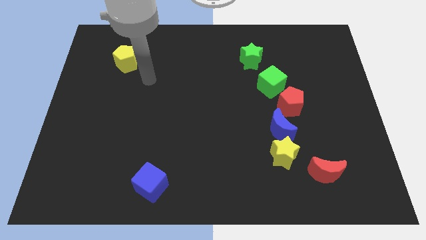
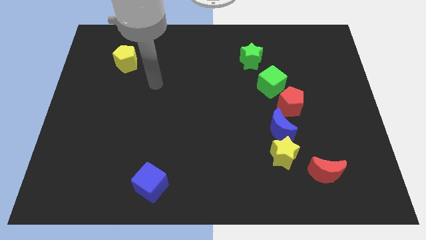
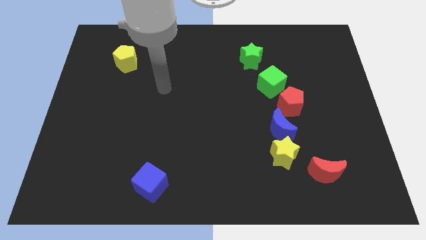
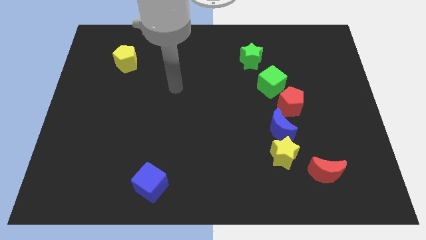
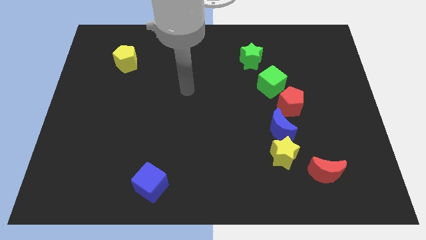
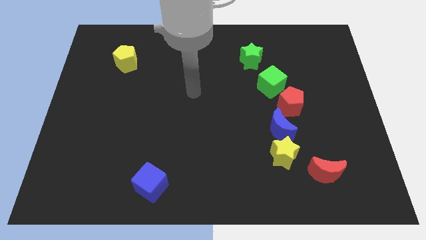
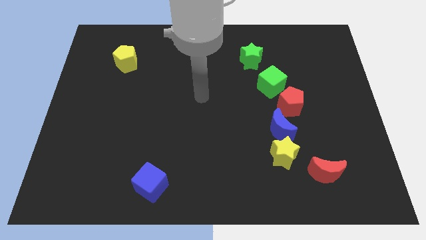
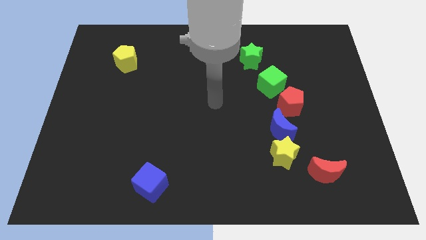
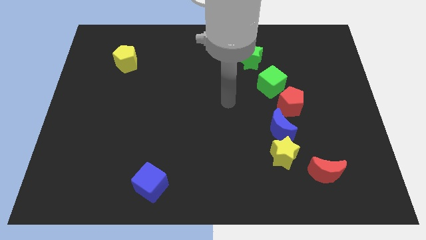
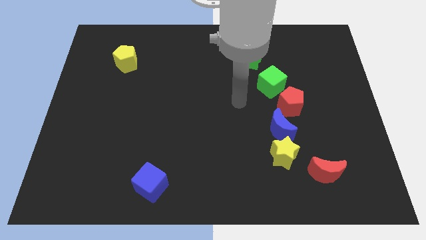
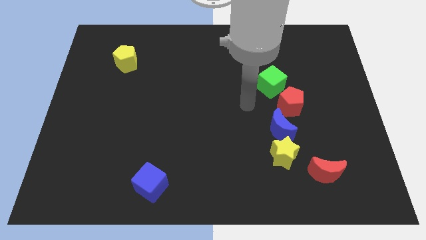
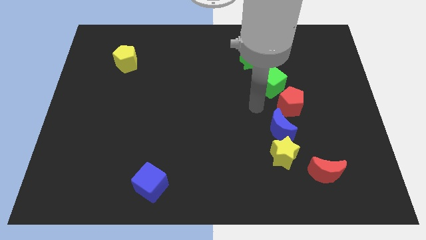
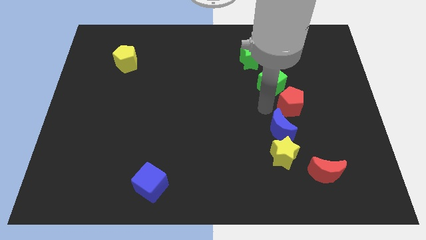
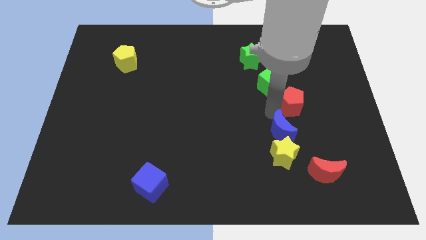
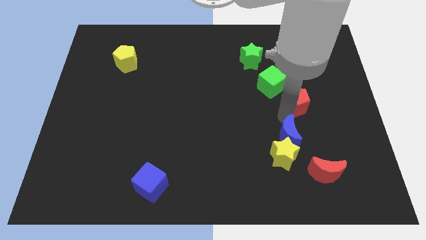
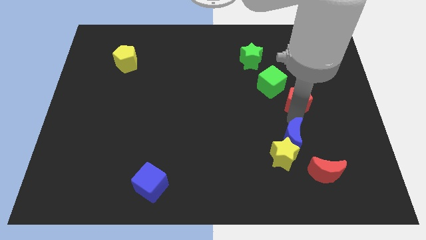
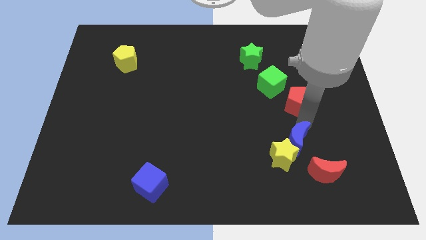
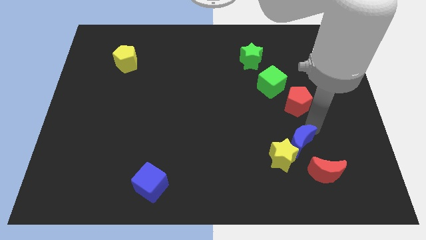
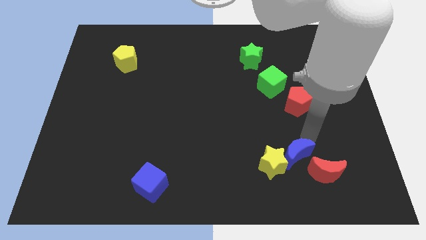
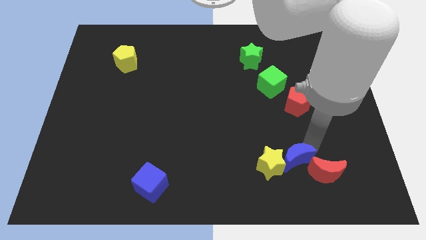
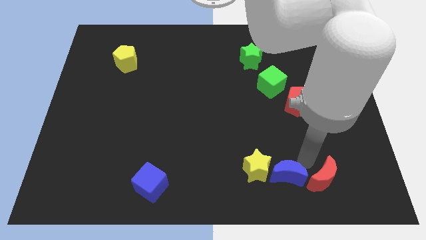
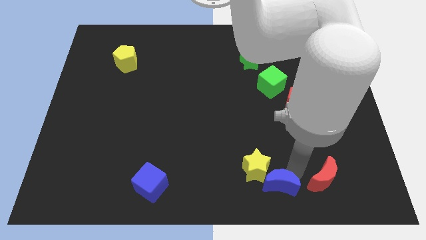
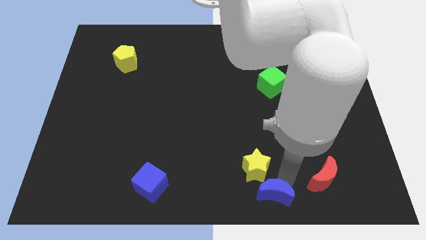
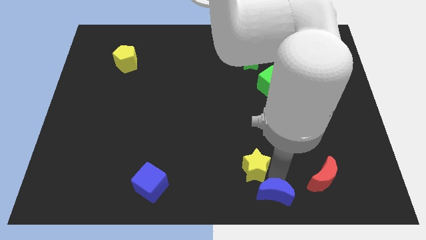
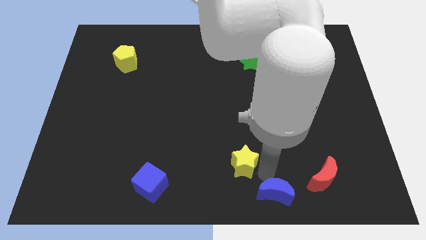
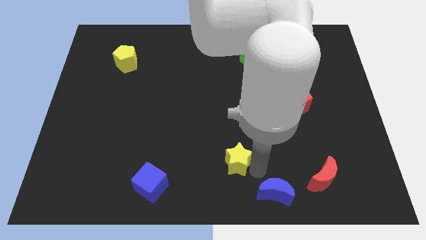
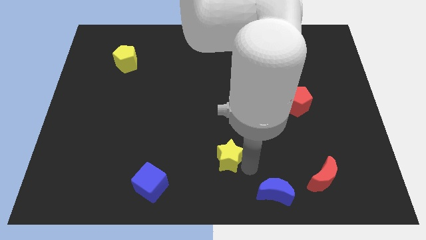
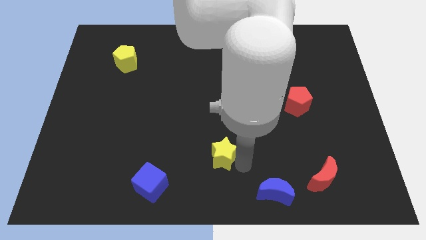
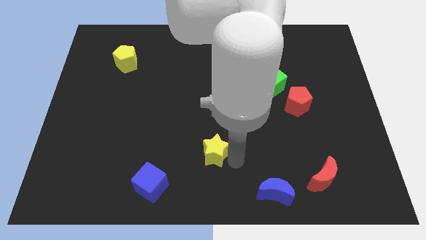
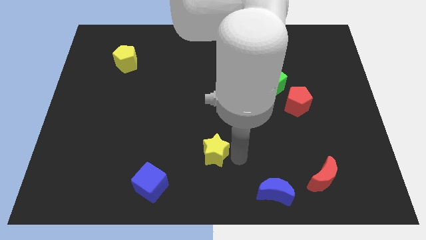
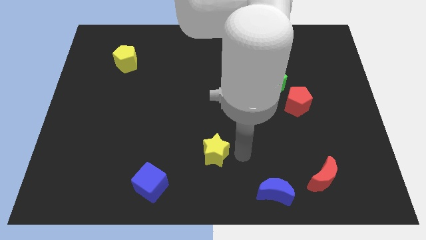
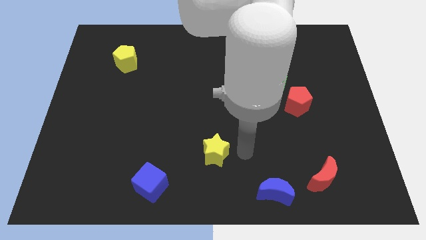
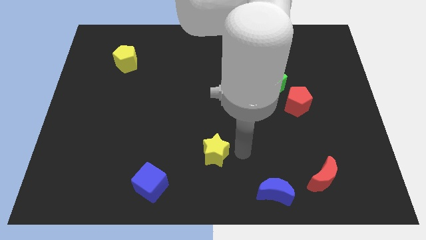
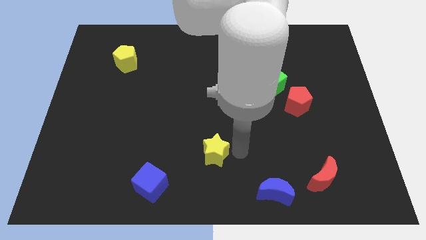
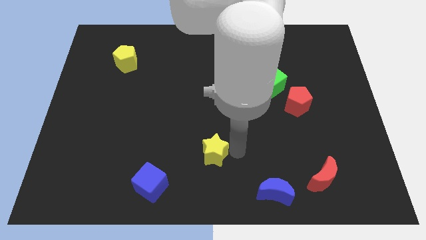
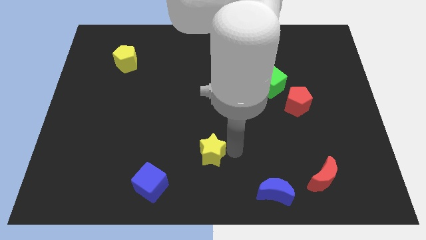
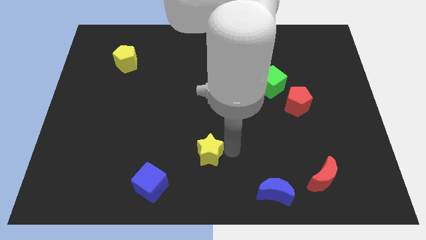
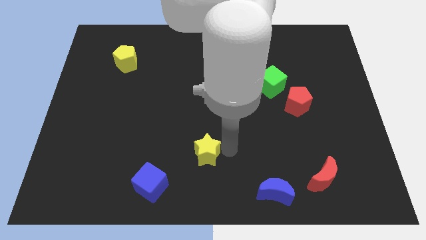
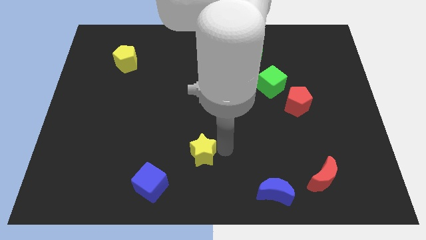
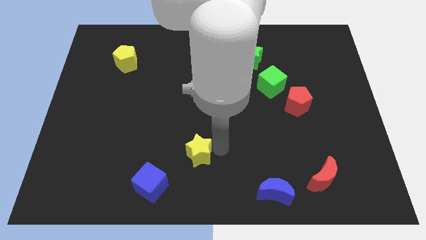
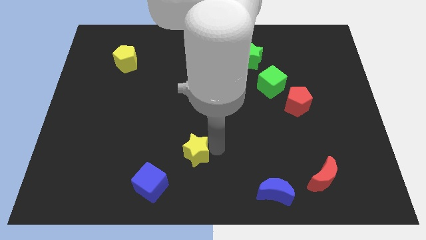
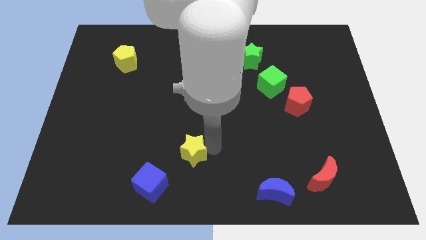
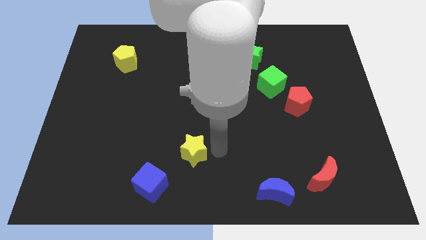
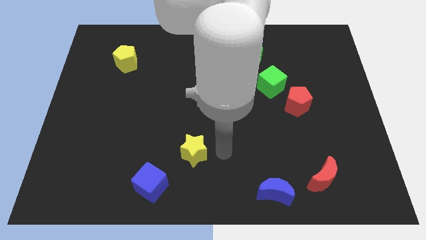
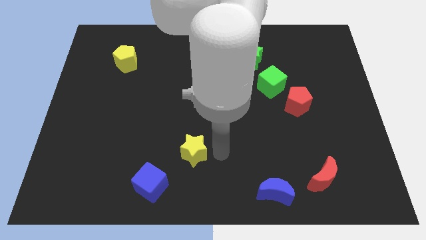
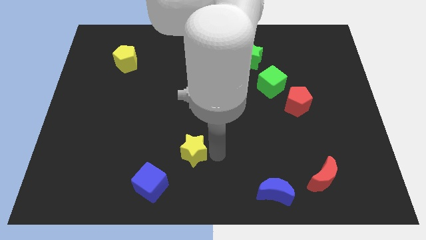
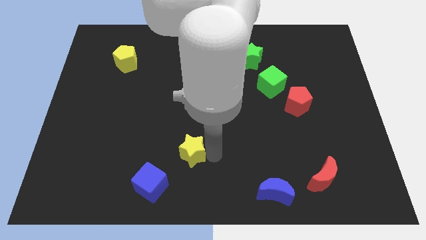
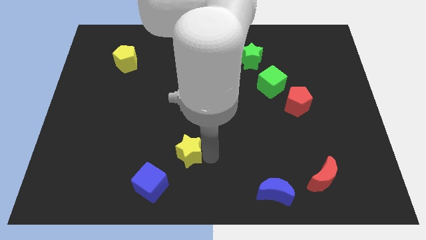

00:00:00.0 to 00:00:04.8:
move the yellow star left

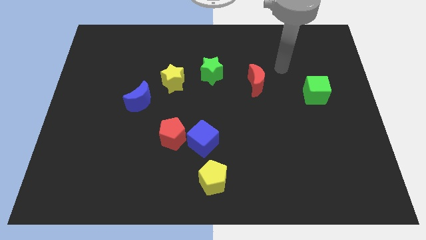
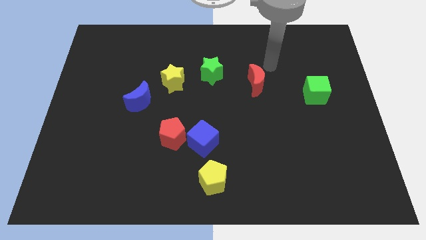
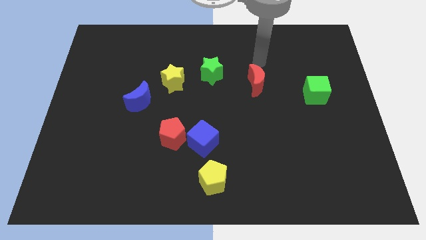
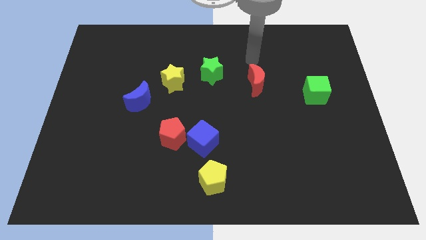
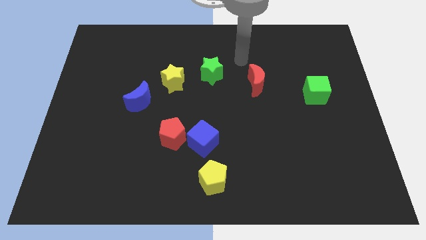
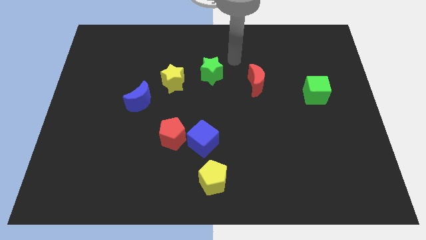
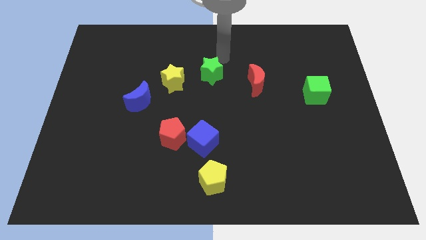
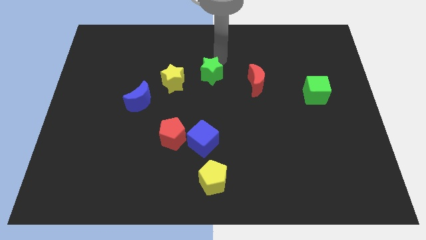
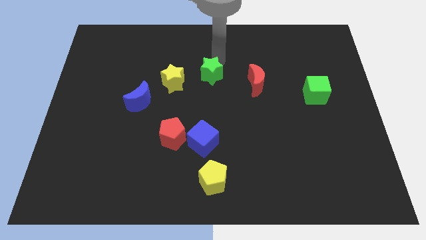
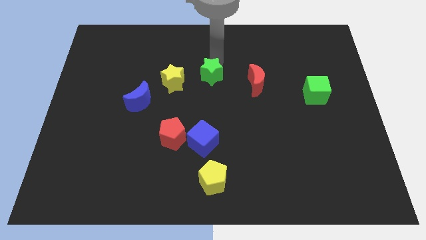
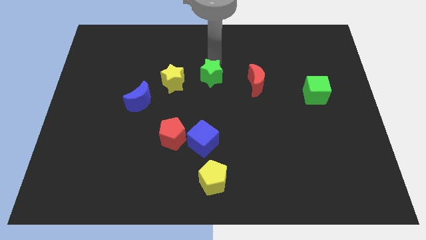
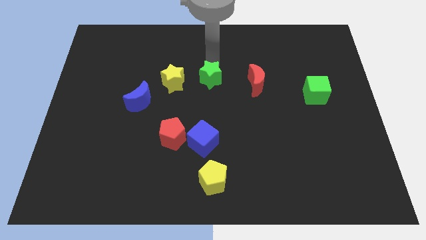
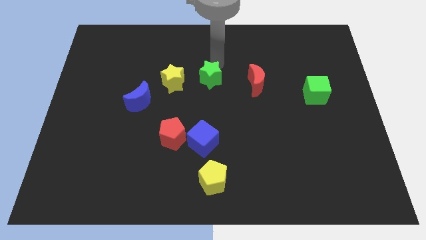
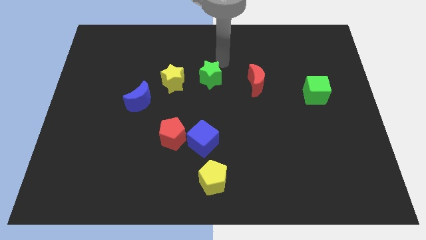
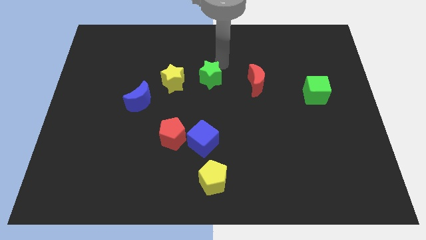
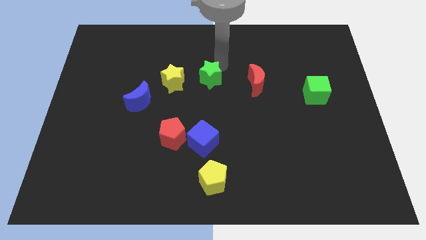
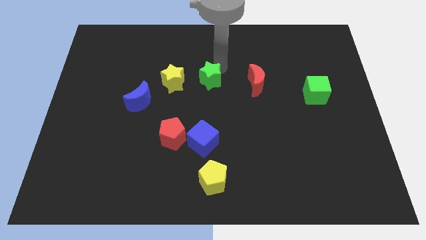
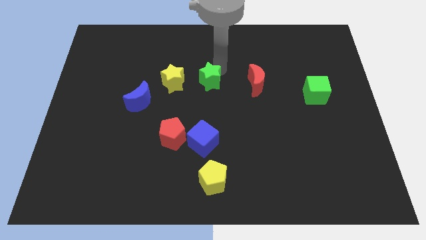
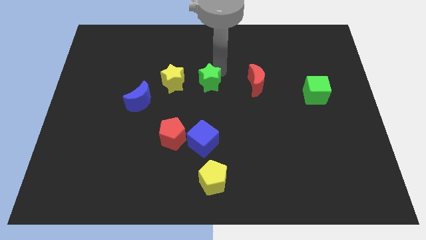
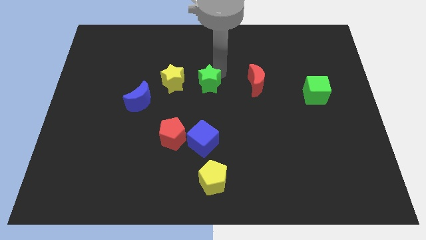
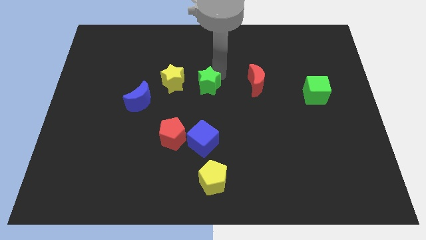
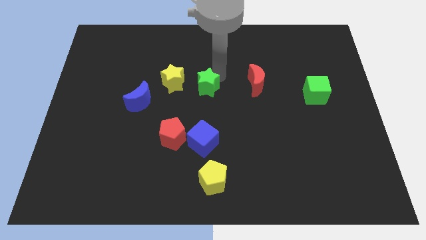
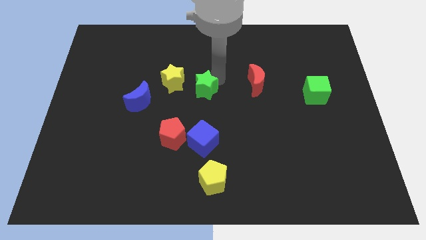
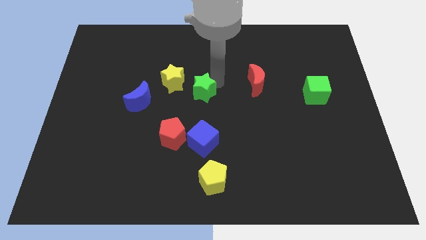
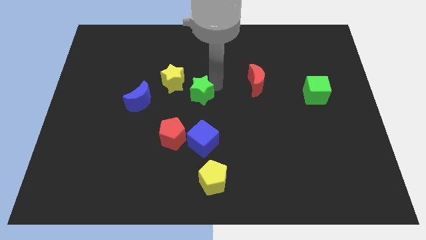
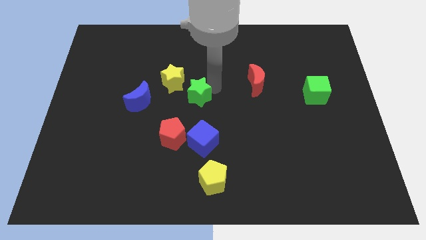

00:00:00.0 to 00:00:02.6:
slightly move the green star down and left

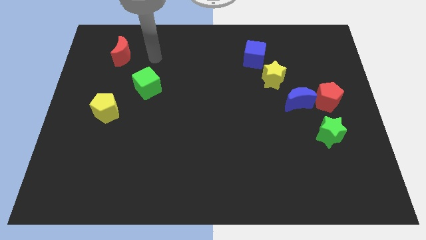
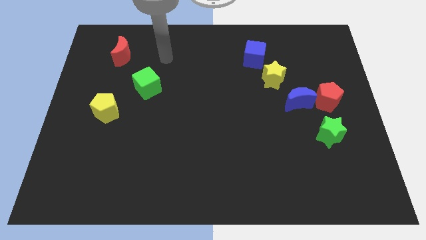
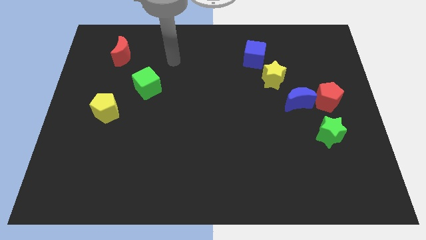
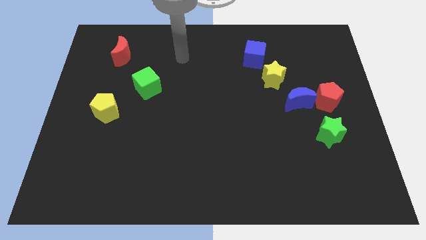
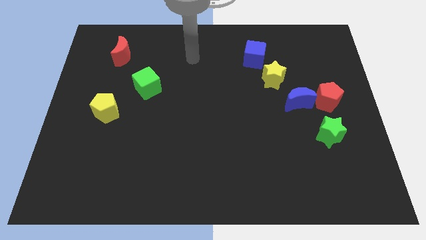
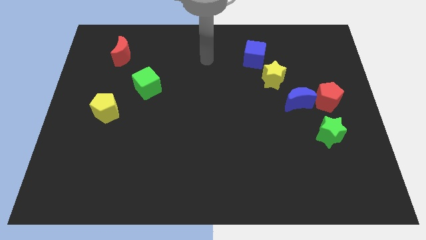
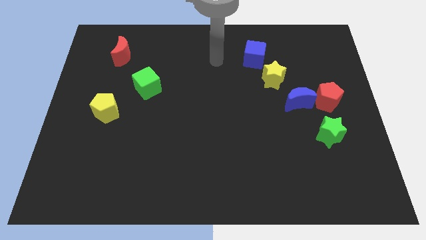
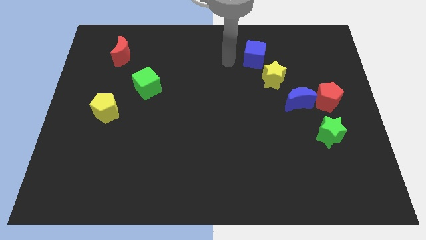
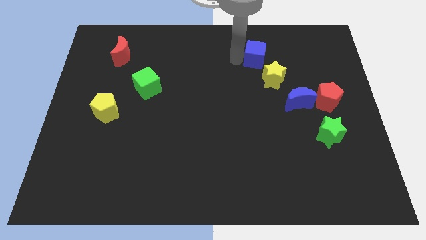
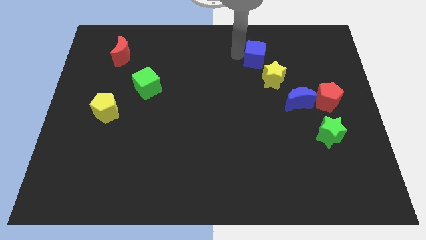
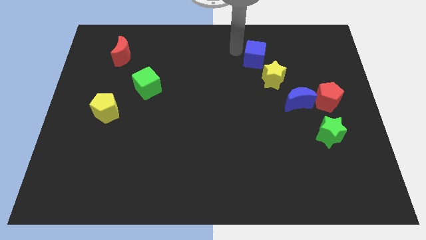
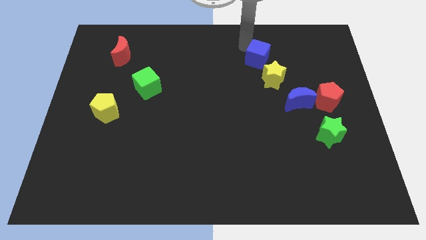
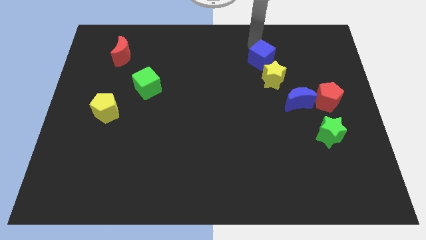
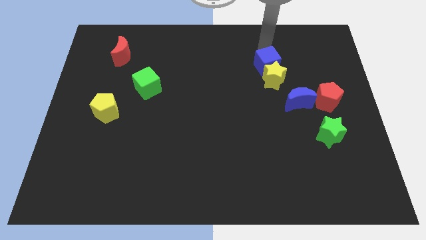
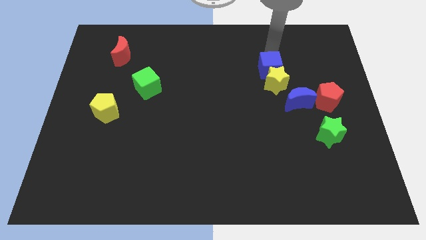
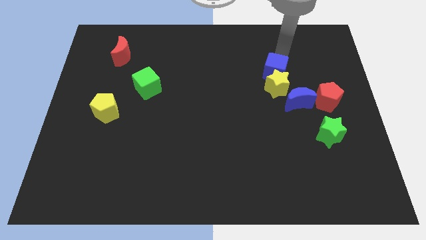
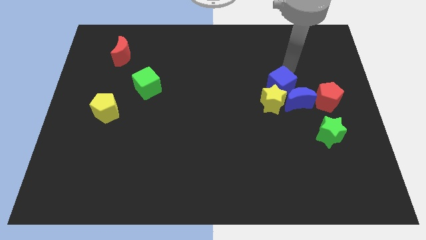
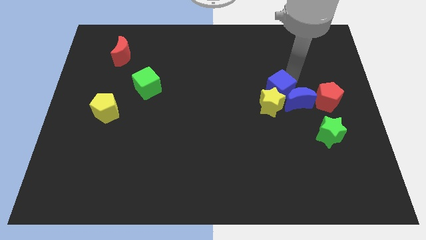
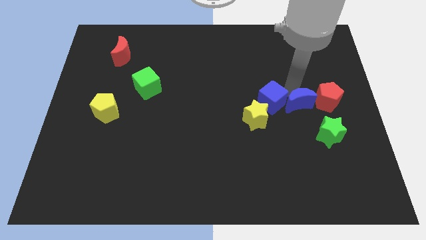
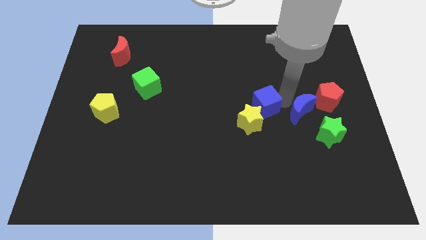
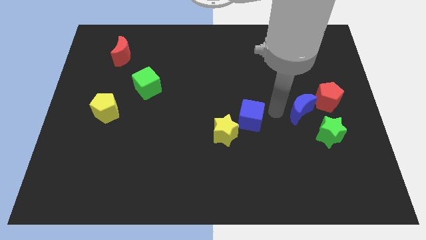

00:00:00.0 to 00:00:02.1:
slide the yellow star diagonally downwards and to the left
